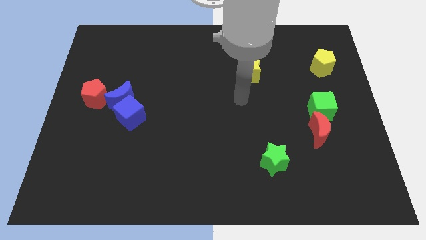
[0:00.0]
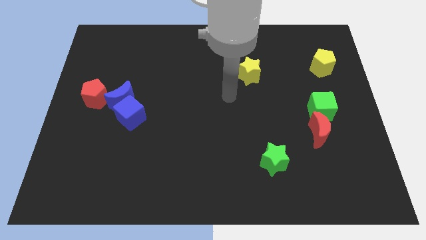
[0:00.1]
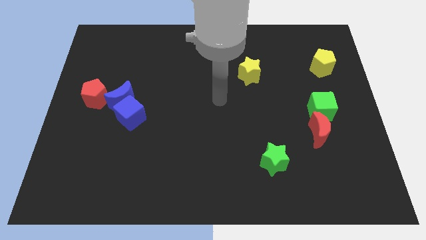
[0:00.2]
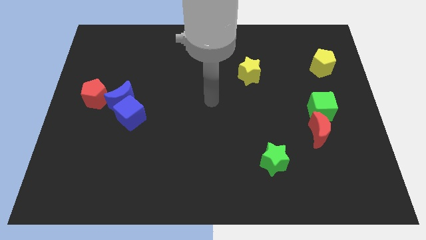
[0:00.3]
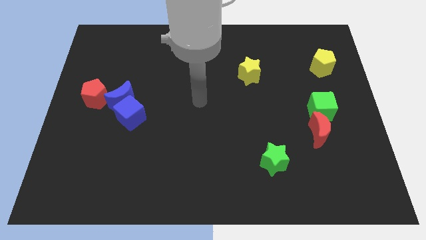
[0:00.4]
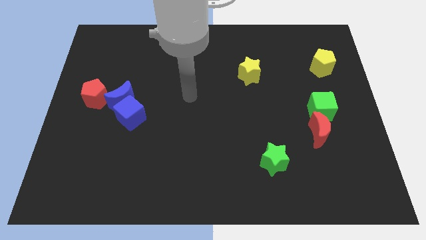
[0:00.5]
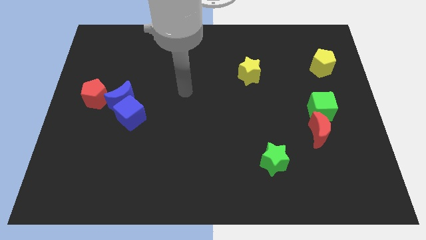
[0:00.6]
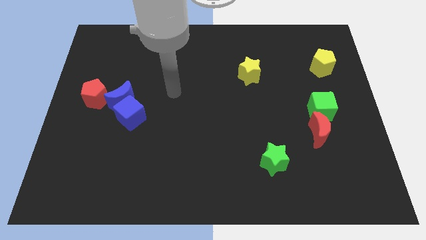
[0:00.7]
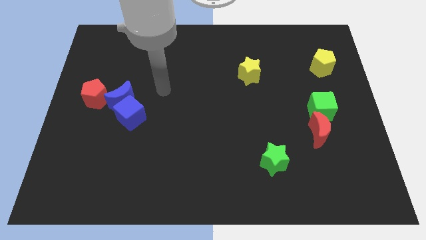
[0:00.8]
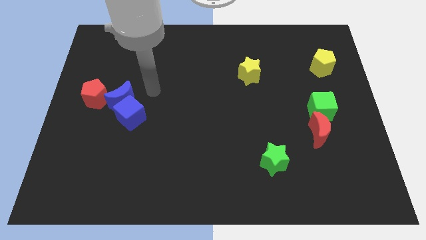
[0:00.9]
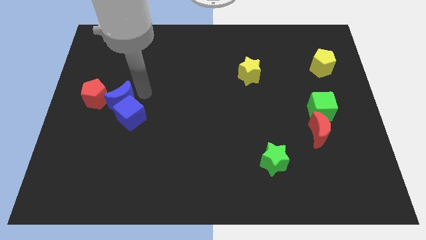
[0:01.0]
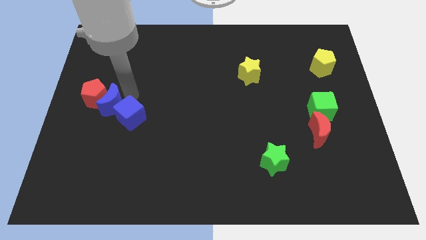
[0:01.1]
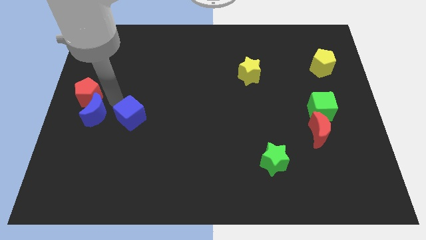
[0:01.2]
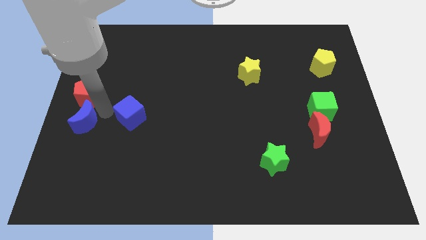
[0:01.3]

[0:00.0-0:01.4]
separate the blue cube from the blue moon

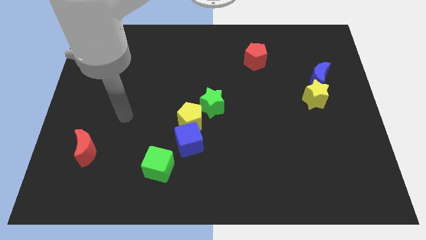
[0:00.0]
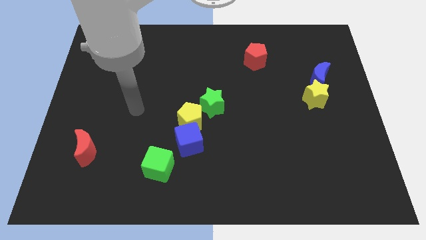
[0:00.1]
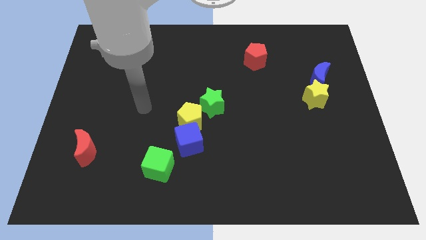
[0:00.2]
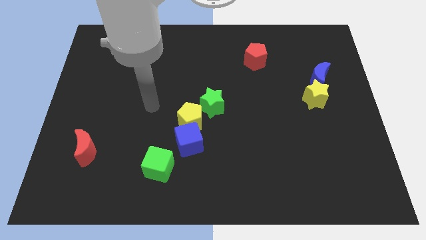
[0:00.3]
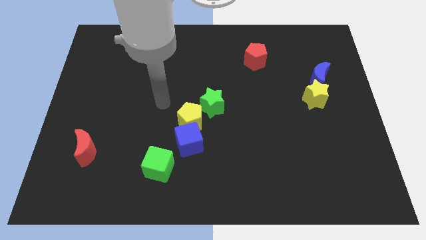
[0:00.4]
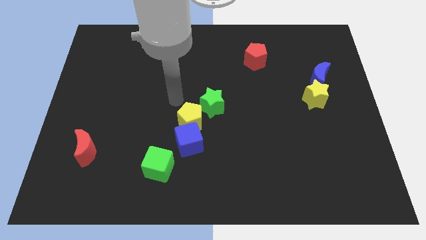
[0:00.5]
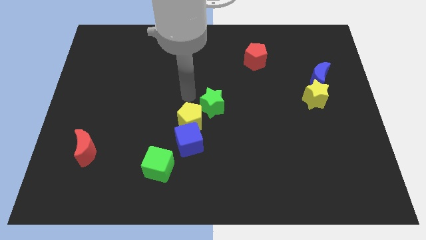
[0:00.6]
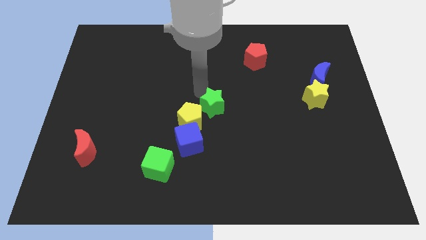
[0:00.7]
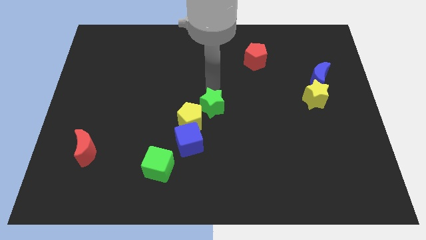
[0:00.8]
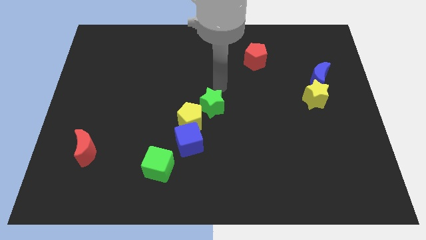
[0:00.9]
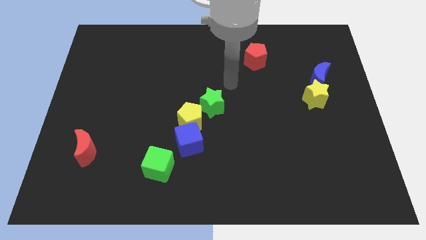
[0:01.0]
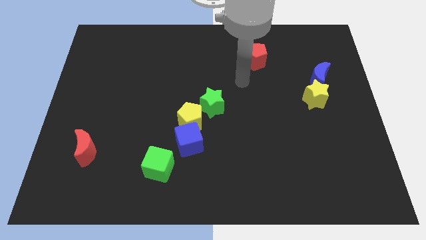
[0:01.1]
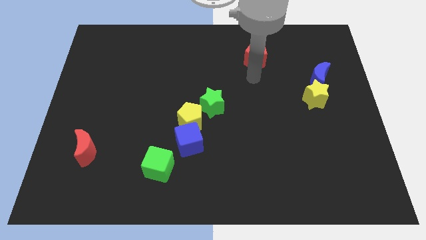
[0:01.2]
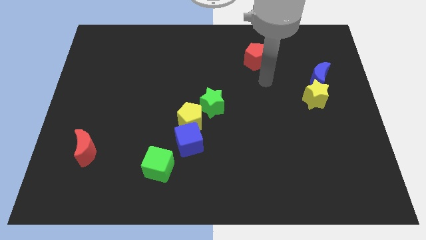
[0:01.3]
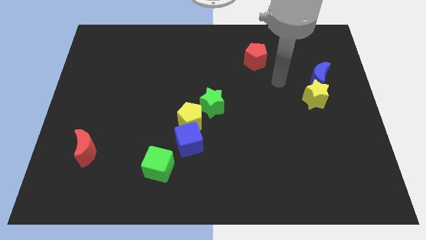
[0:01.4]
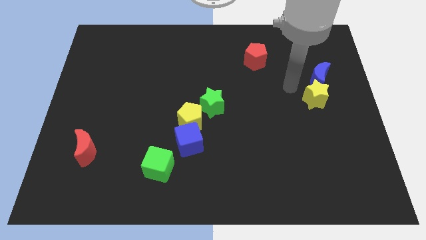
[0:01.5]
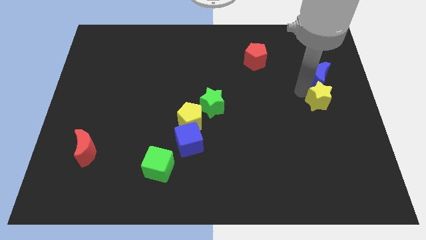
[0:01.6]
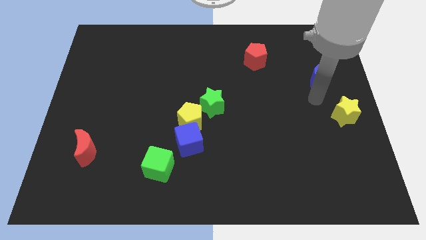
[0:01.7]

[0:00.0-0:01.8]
separate the blue moon from the yellow star

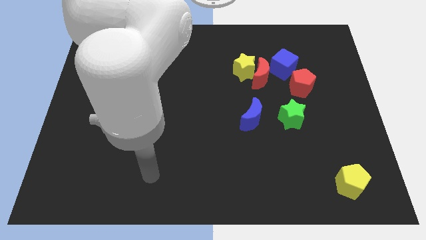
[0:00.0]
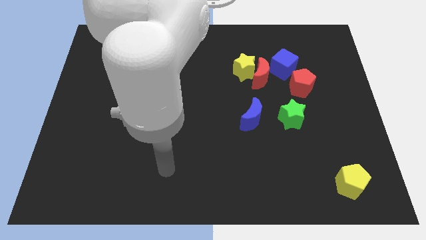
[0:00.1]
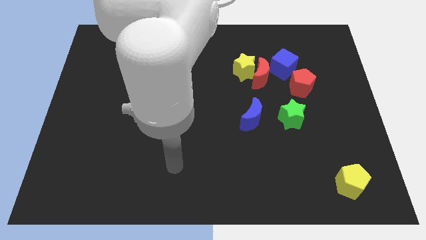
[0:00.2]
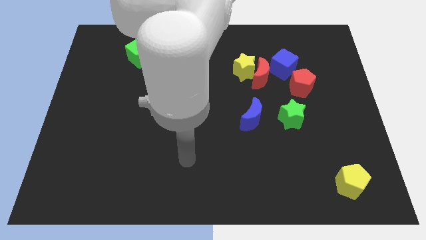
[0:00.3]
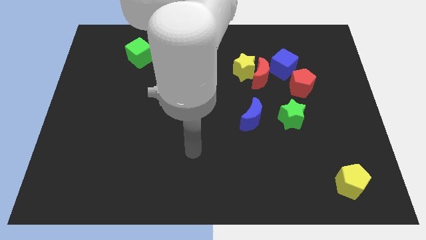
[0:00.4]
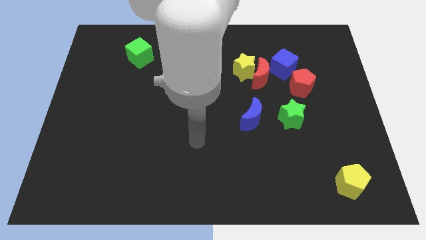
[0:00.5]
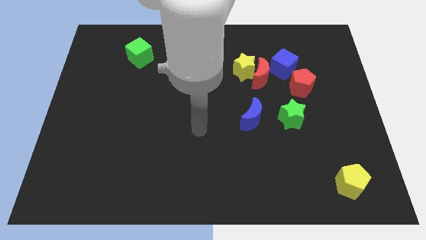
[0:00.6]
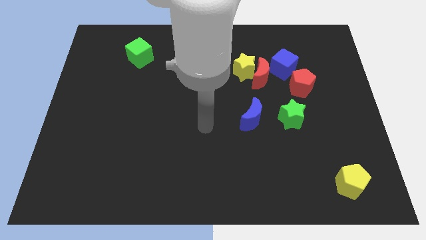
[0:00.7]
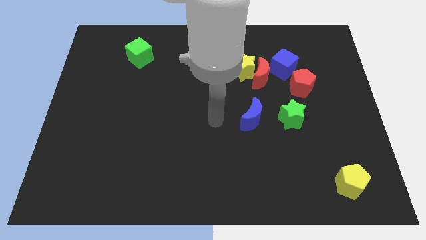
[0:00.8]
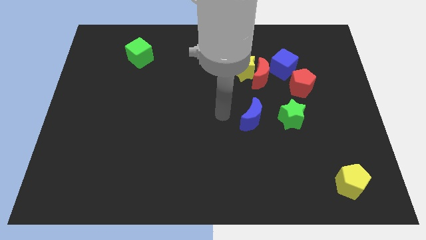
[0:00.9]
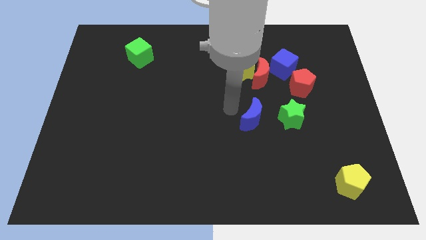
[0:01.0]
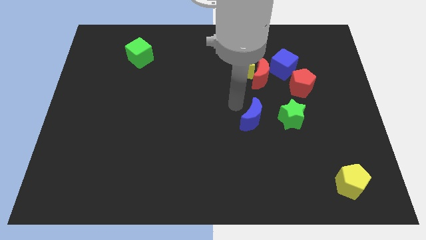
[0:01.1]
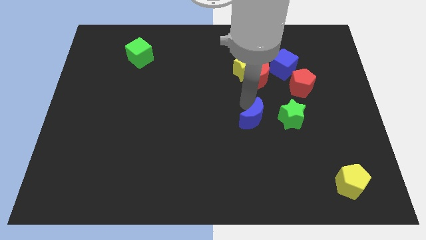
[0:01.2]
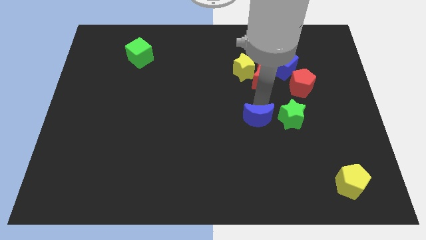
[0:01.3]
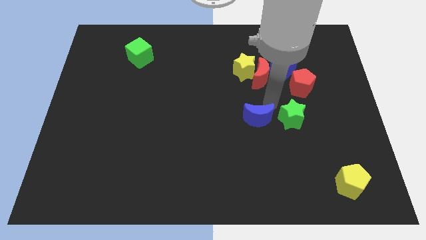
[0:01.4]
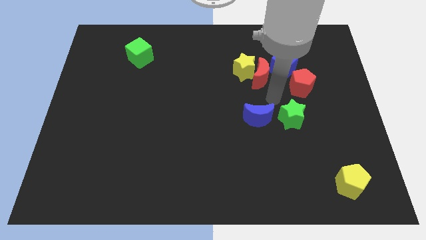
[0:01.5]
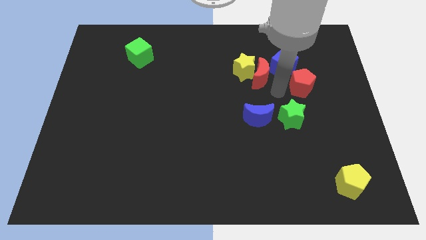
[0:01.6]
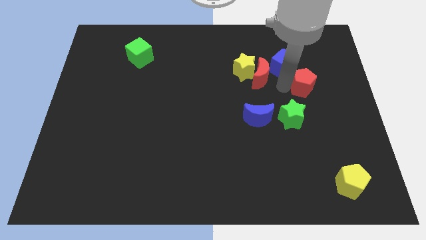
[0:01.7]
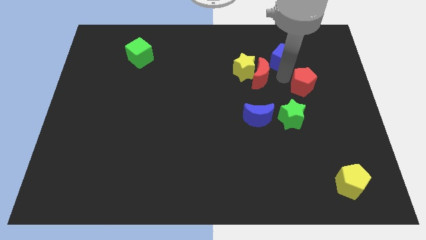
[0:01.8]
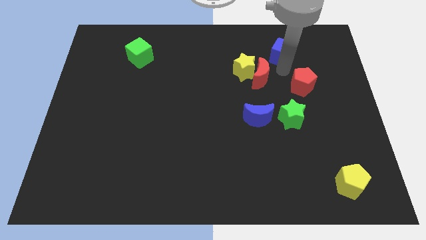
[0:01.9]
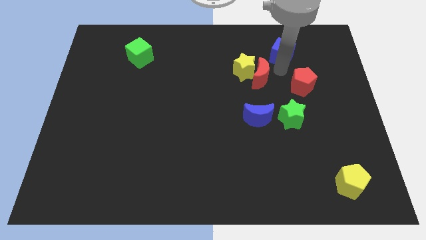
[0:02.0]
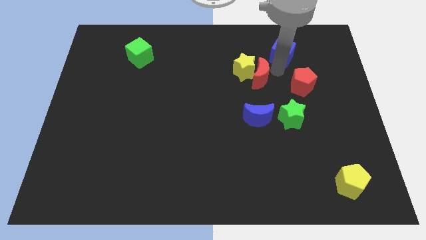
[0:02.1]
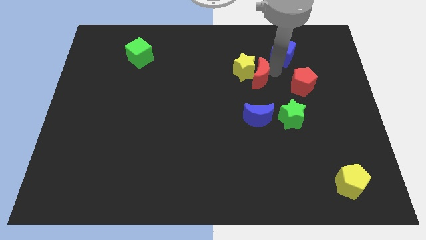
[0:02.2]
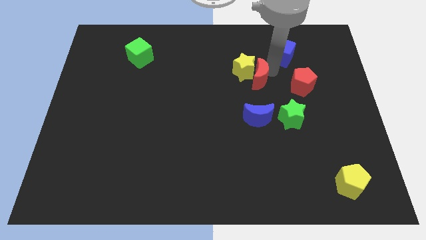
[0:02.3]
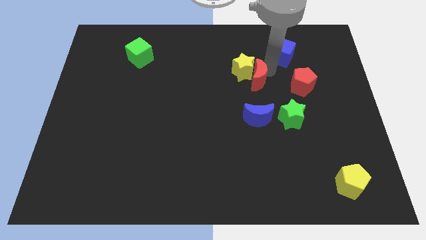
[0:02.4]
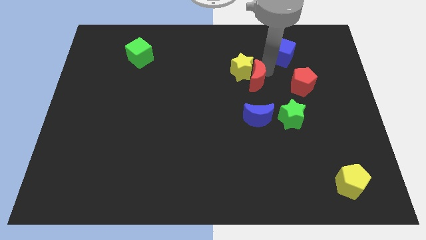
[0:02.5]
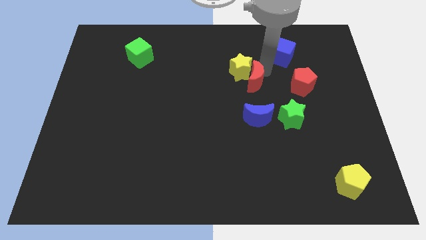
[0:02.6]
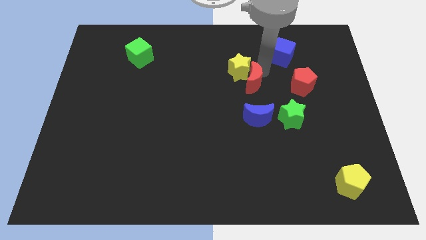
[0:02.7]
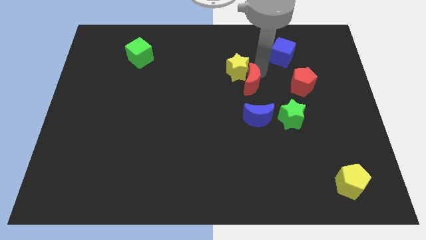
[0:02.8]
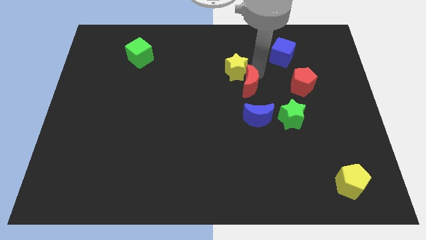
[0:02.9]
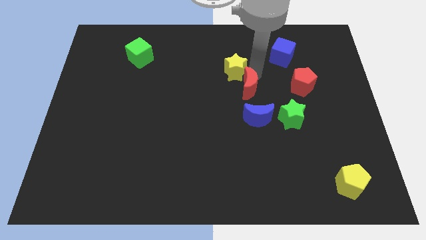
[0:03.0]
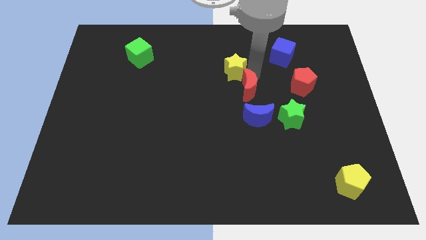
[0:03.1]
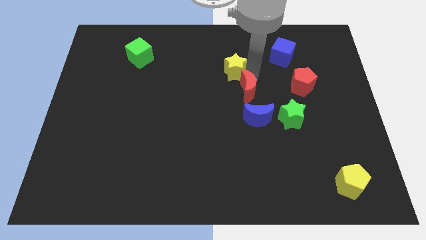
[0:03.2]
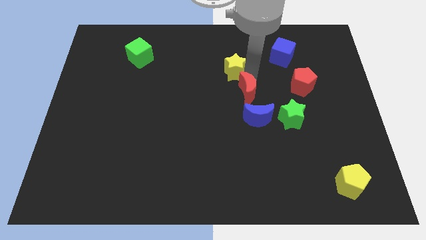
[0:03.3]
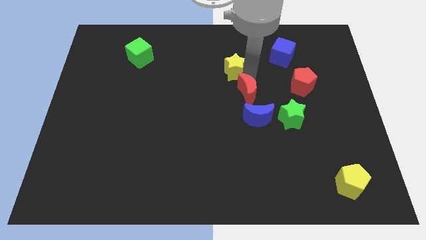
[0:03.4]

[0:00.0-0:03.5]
separate the red moon from the group of blocks

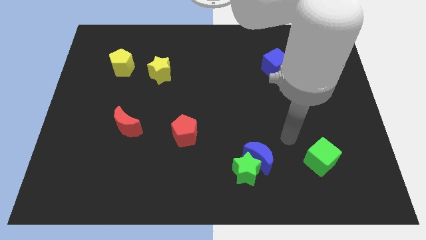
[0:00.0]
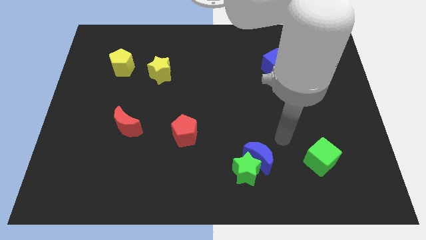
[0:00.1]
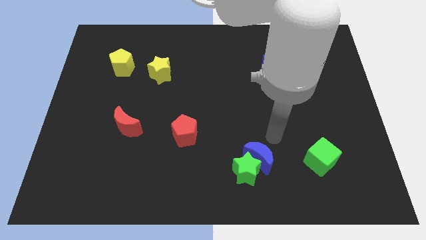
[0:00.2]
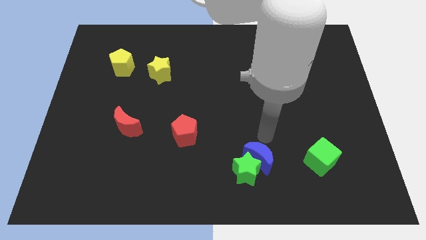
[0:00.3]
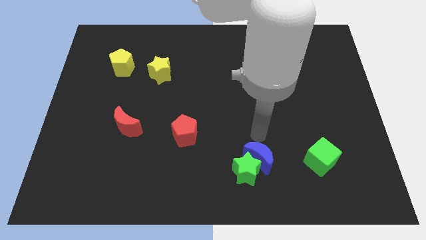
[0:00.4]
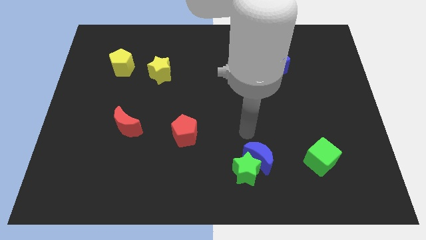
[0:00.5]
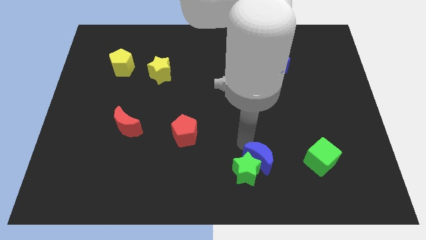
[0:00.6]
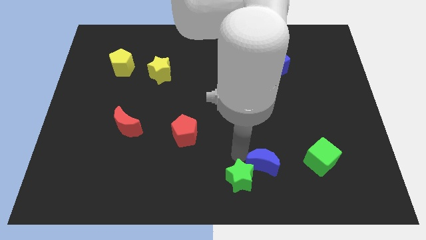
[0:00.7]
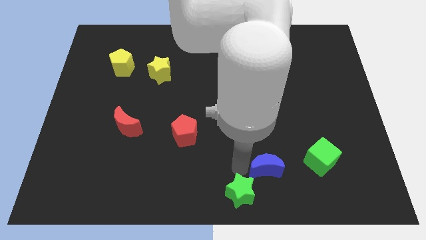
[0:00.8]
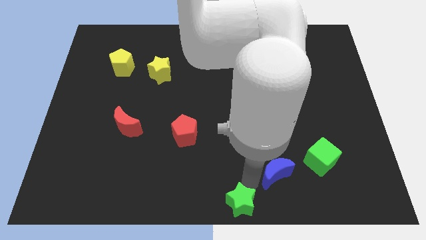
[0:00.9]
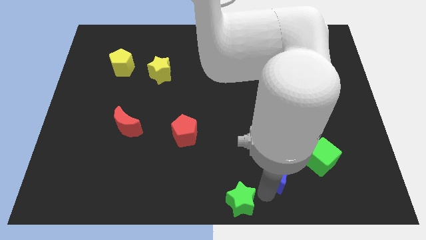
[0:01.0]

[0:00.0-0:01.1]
pull the blue moon apart from the green star

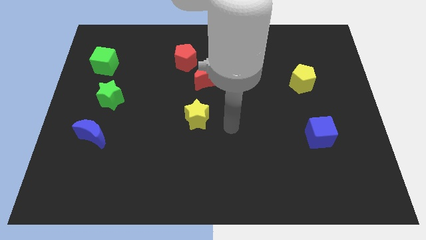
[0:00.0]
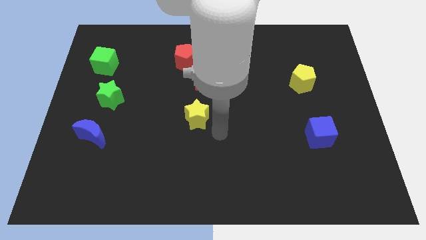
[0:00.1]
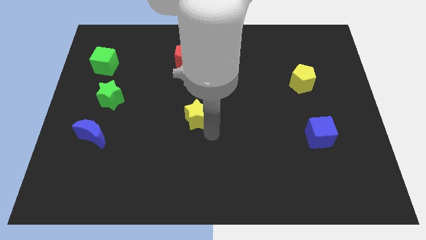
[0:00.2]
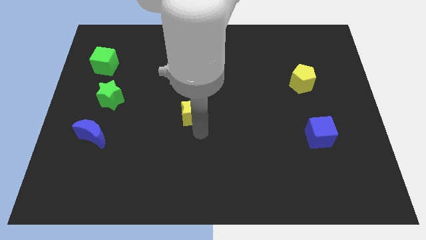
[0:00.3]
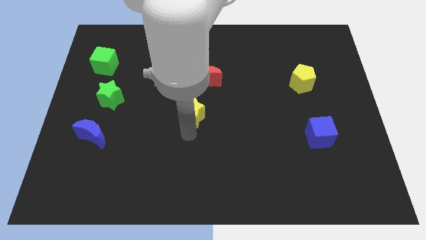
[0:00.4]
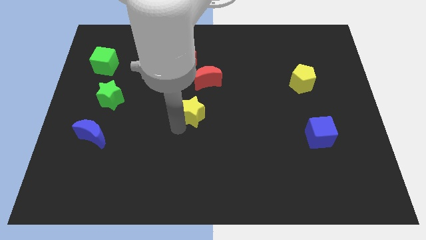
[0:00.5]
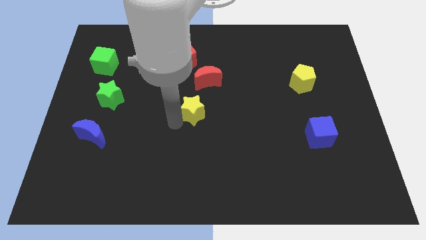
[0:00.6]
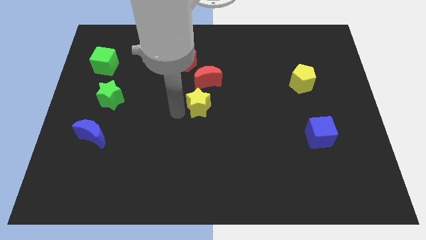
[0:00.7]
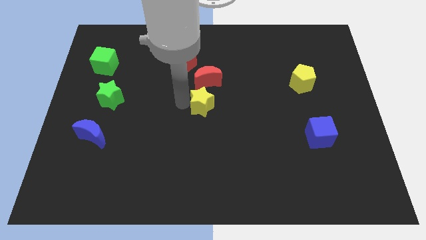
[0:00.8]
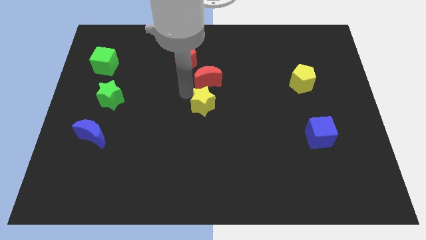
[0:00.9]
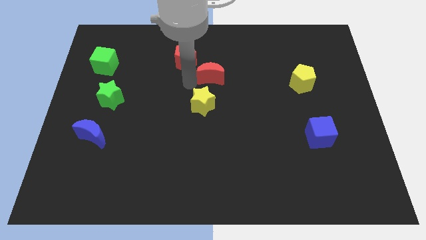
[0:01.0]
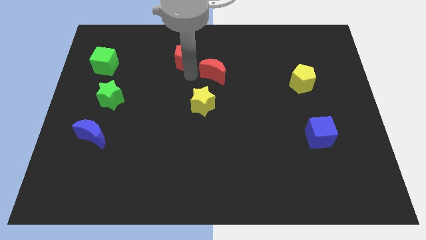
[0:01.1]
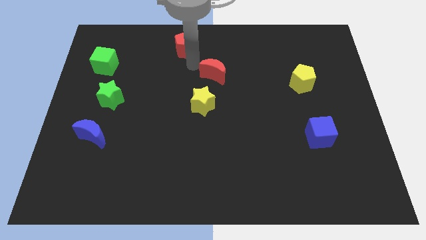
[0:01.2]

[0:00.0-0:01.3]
pull the red moon apart from the red pentagon

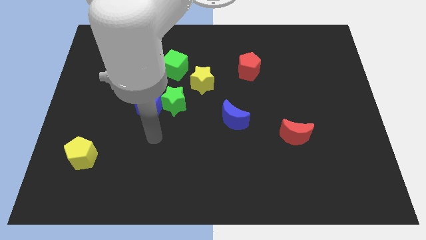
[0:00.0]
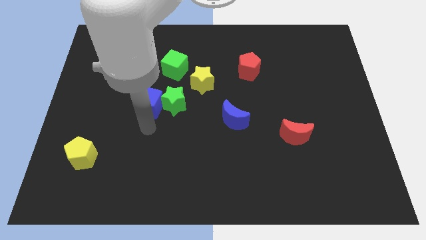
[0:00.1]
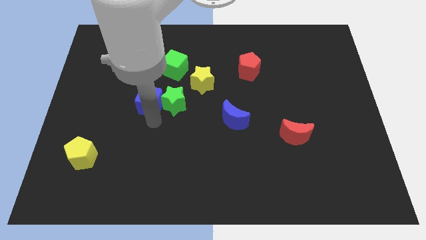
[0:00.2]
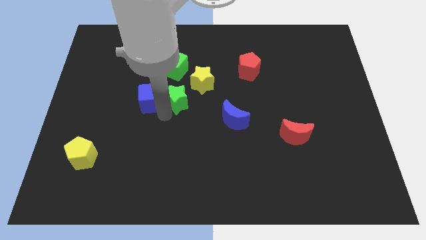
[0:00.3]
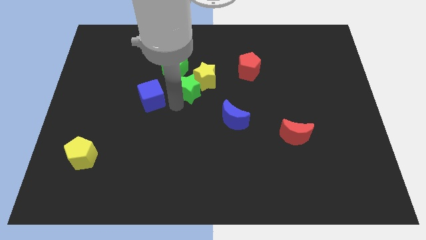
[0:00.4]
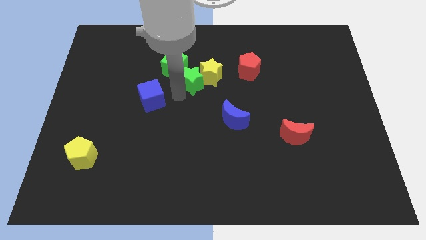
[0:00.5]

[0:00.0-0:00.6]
move the blue cube away from the green star
